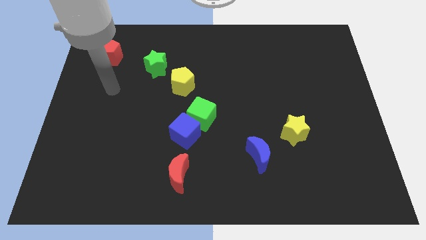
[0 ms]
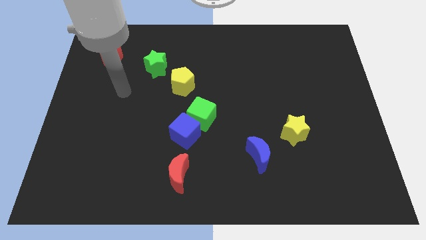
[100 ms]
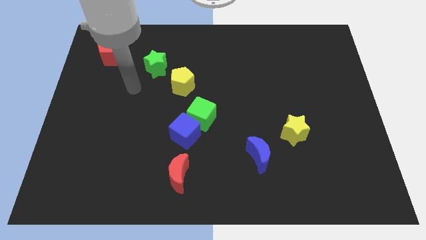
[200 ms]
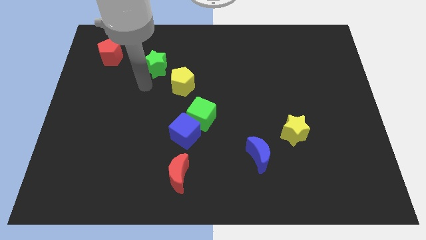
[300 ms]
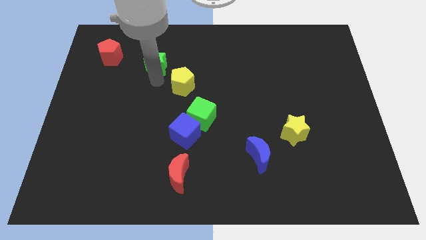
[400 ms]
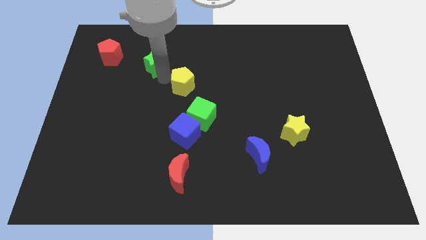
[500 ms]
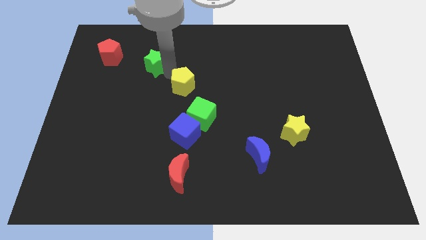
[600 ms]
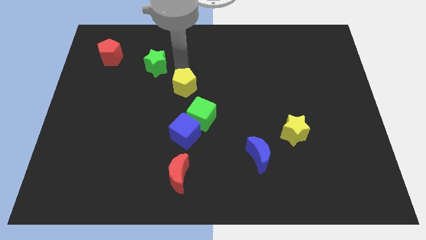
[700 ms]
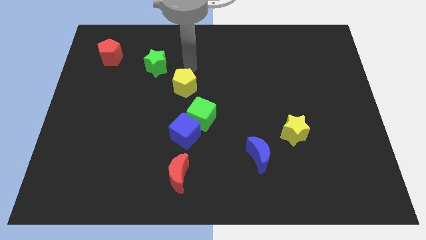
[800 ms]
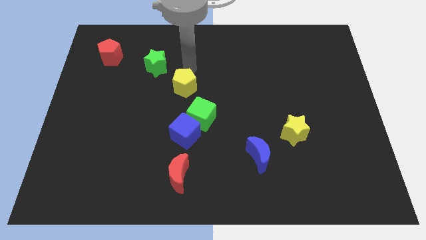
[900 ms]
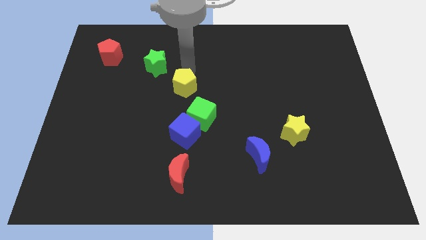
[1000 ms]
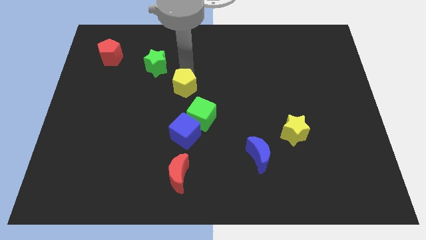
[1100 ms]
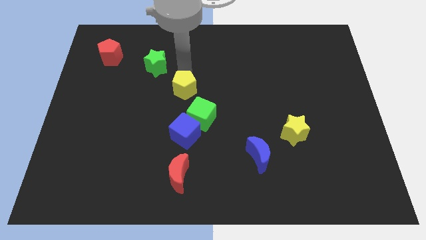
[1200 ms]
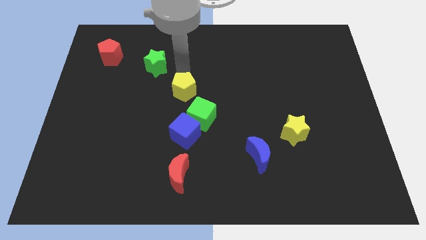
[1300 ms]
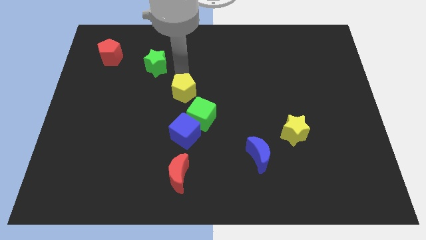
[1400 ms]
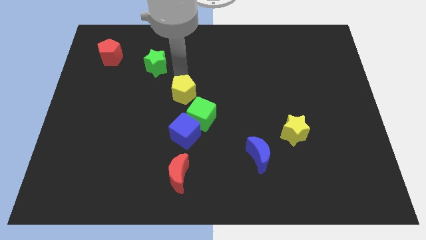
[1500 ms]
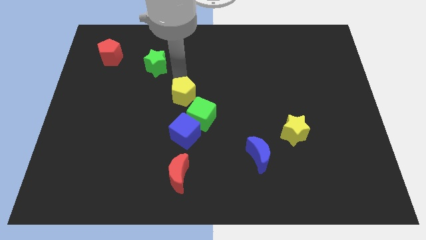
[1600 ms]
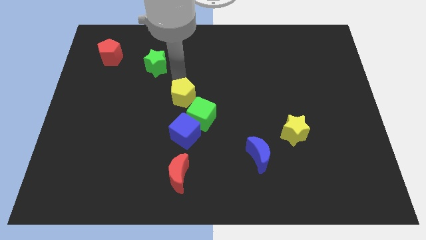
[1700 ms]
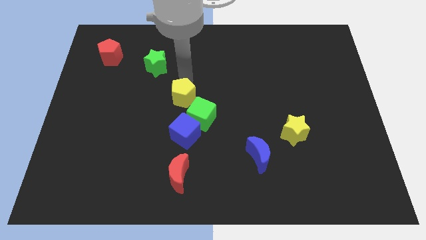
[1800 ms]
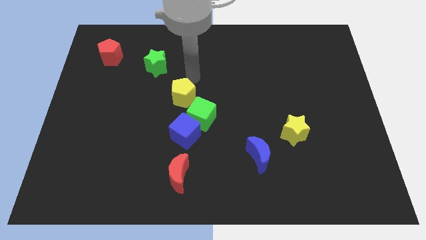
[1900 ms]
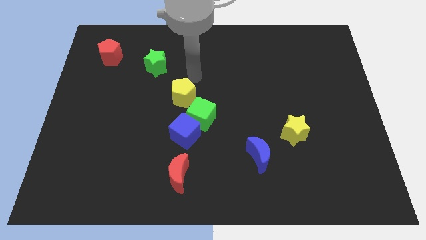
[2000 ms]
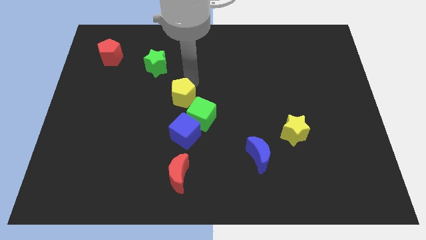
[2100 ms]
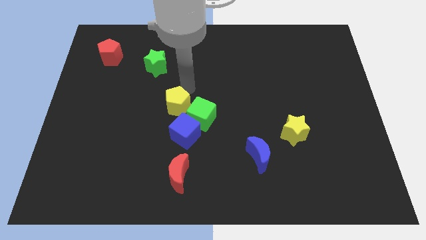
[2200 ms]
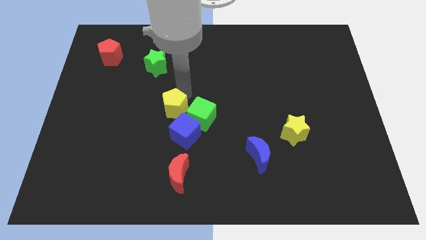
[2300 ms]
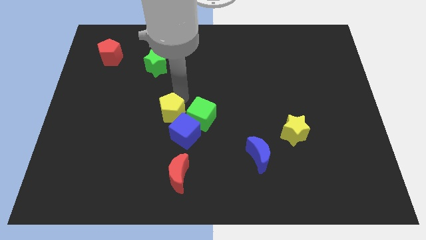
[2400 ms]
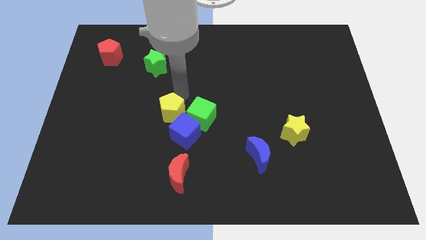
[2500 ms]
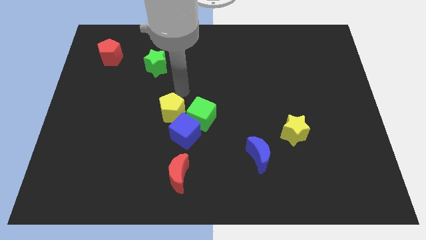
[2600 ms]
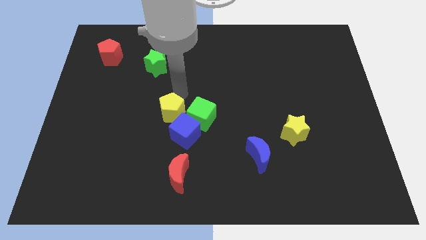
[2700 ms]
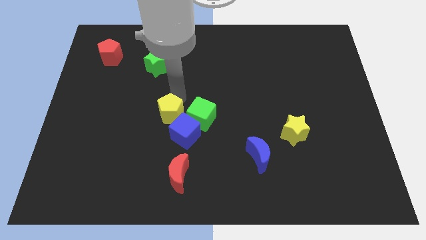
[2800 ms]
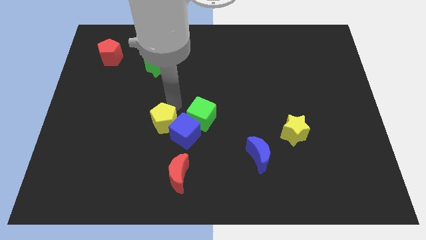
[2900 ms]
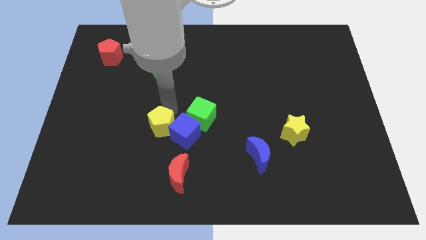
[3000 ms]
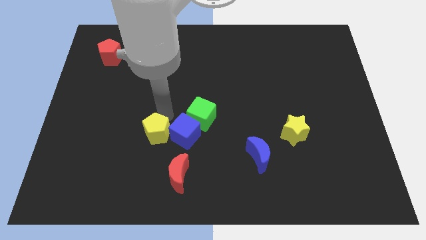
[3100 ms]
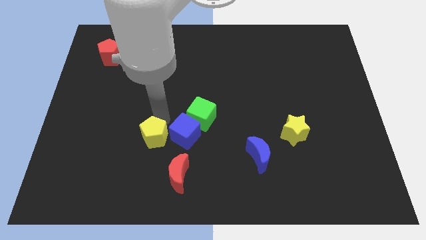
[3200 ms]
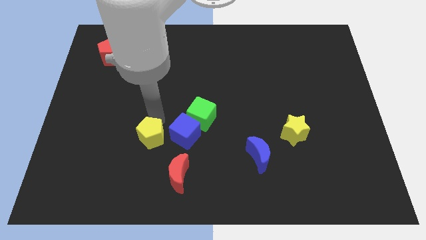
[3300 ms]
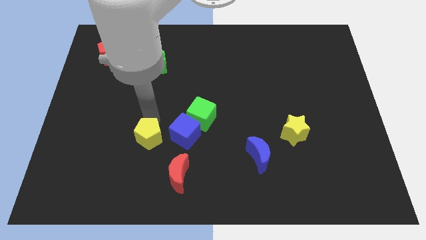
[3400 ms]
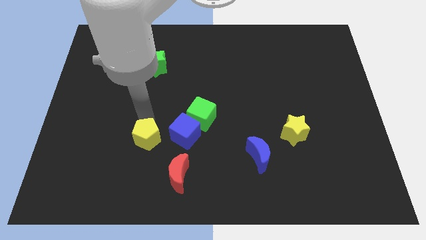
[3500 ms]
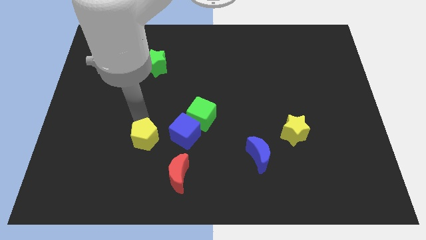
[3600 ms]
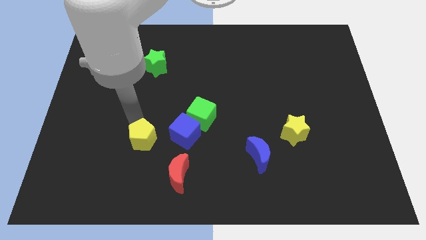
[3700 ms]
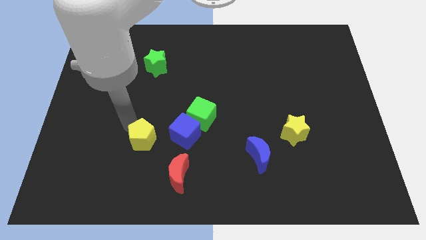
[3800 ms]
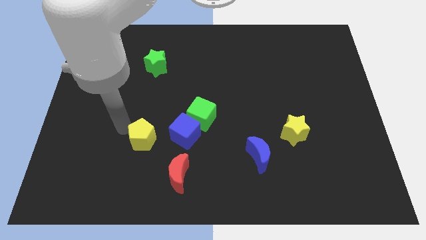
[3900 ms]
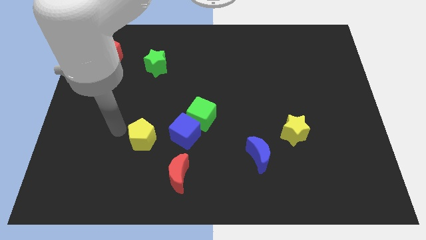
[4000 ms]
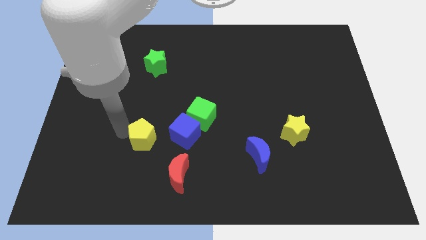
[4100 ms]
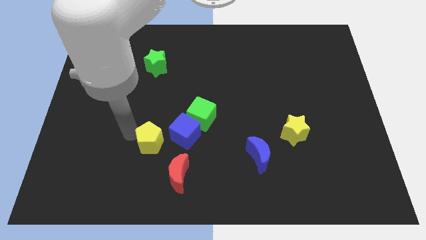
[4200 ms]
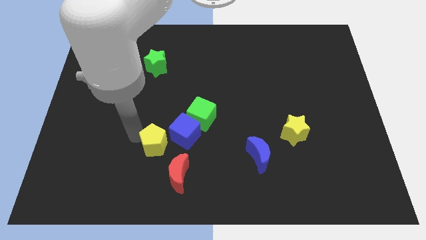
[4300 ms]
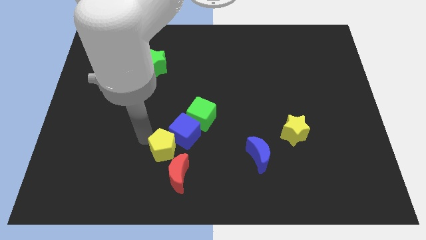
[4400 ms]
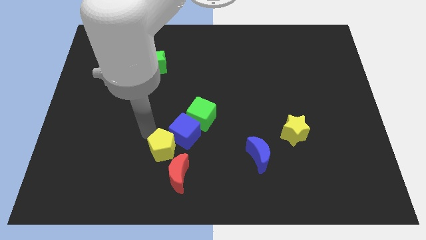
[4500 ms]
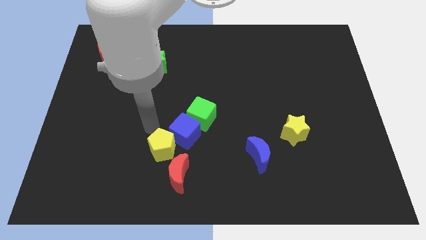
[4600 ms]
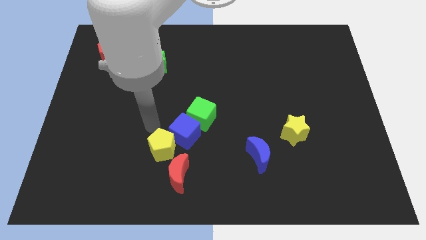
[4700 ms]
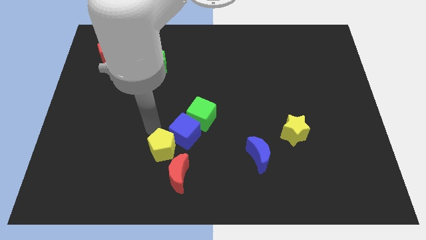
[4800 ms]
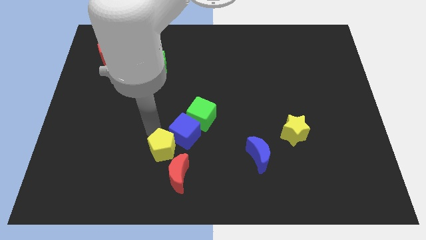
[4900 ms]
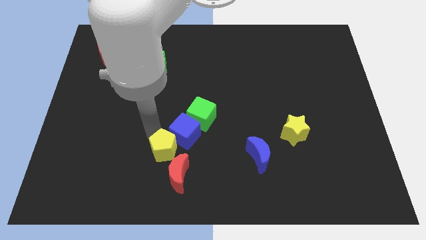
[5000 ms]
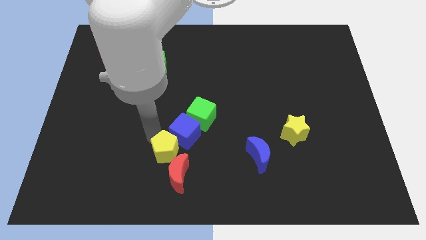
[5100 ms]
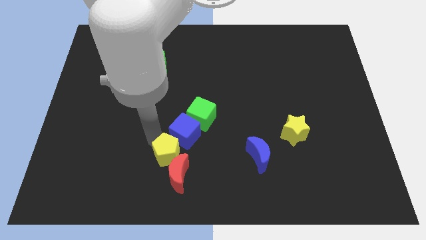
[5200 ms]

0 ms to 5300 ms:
move the yellow pentagon next to the red moon

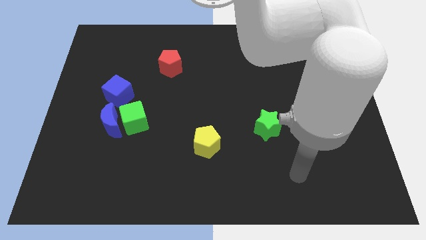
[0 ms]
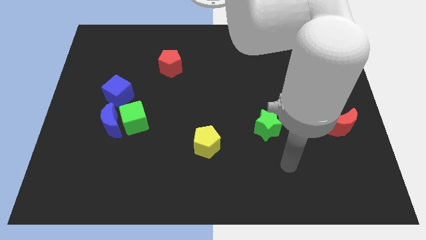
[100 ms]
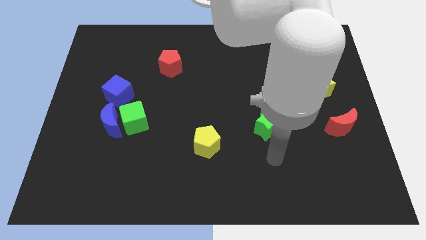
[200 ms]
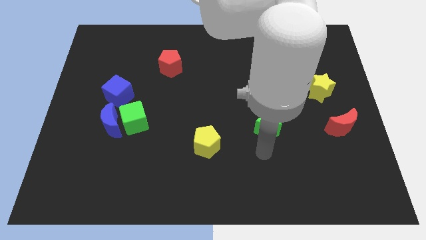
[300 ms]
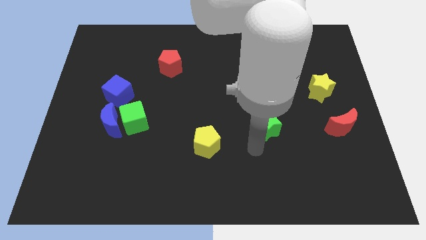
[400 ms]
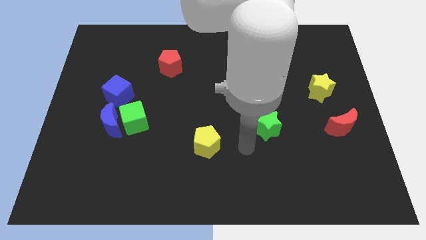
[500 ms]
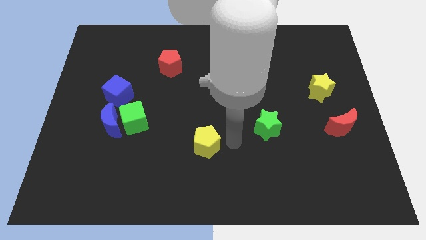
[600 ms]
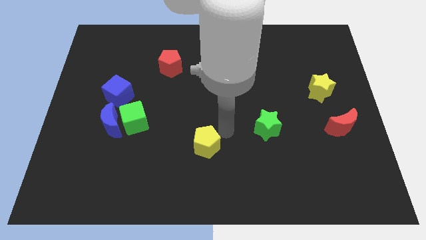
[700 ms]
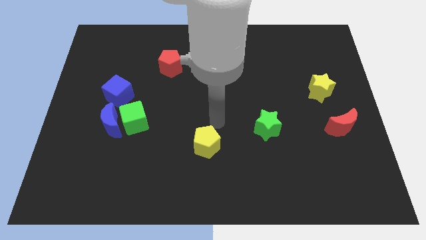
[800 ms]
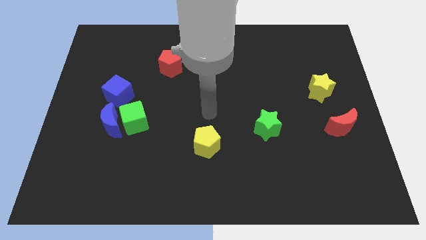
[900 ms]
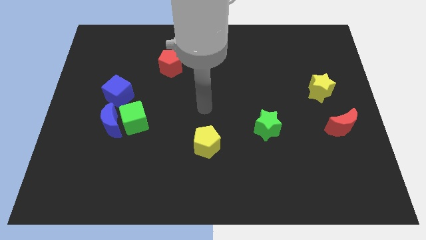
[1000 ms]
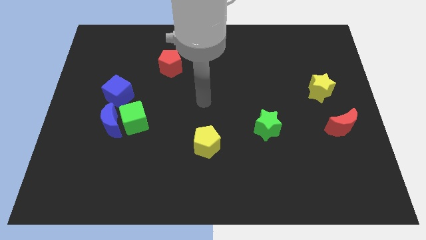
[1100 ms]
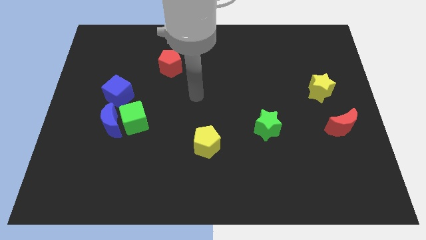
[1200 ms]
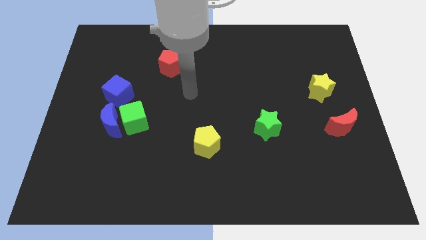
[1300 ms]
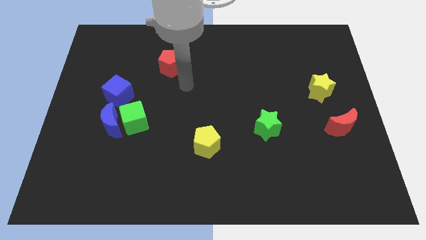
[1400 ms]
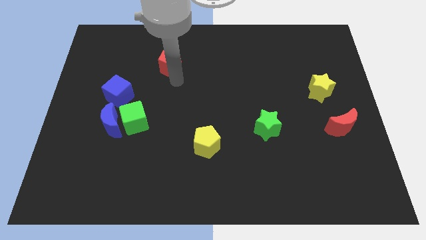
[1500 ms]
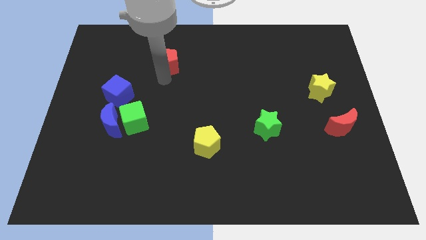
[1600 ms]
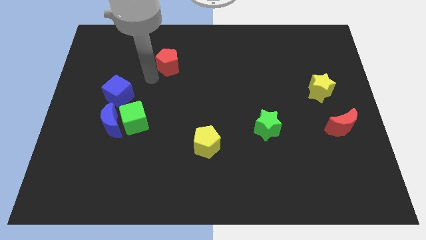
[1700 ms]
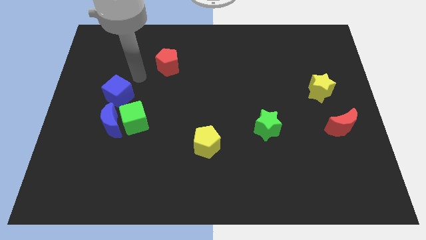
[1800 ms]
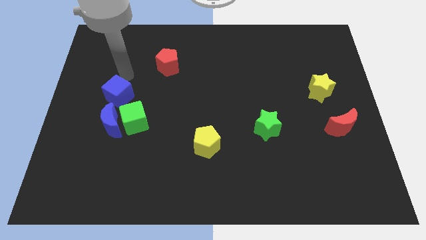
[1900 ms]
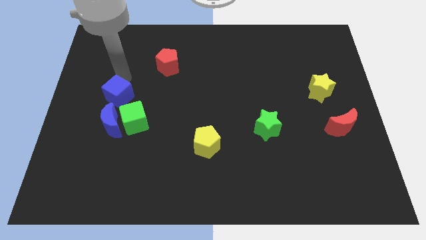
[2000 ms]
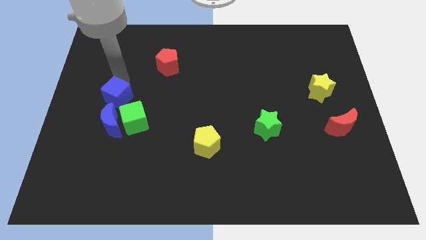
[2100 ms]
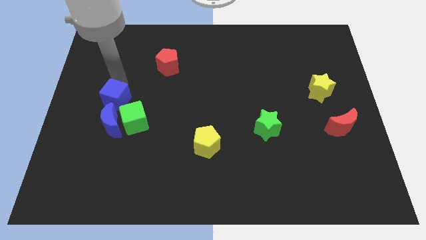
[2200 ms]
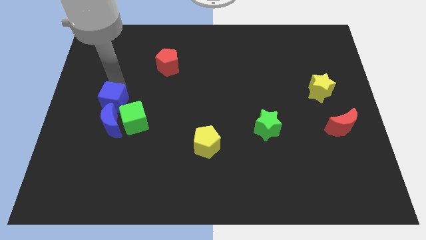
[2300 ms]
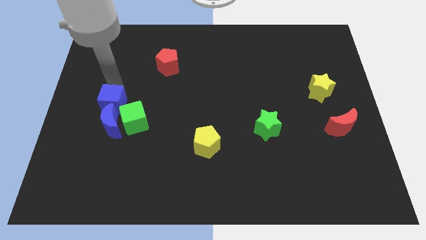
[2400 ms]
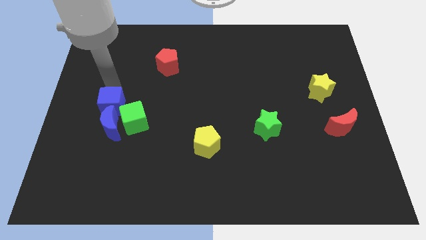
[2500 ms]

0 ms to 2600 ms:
move the blue cube close to the blue moon
